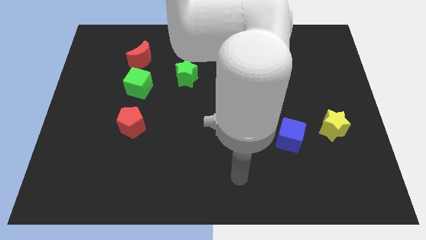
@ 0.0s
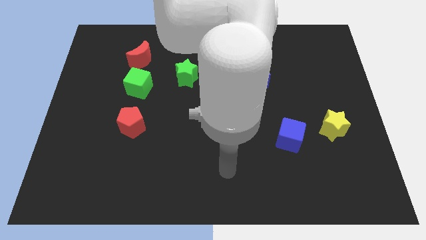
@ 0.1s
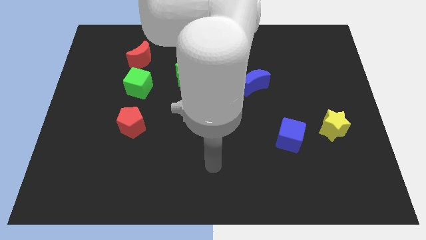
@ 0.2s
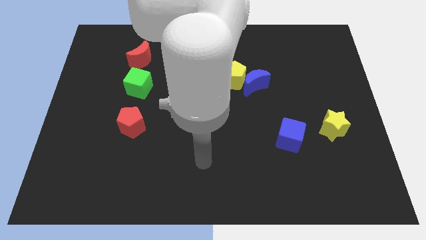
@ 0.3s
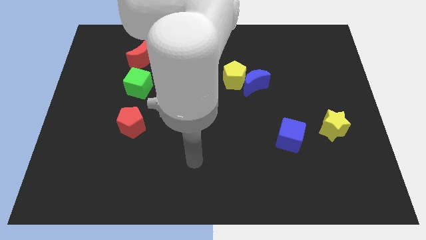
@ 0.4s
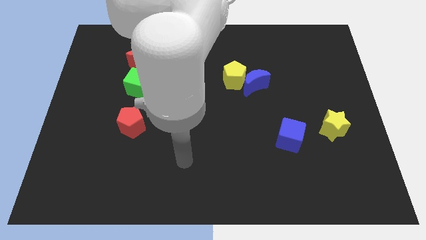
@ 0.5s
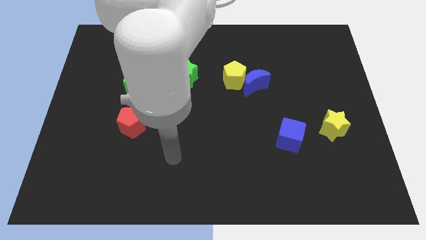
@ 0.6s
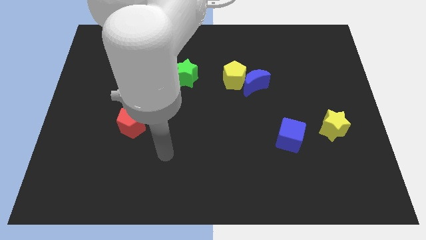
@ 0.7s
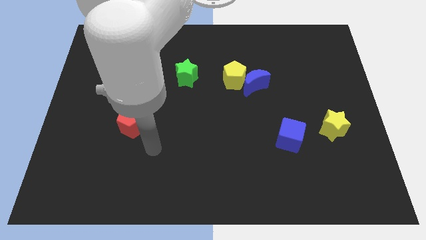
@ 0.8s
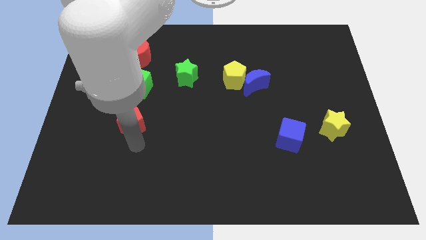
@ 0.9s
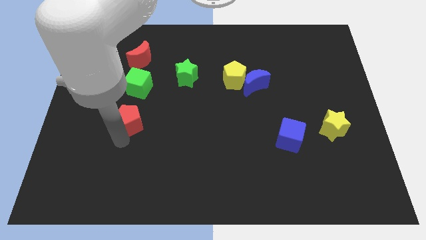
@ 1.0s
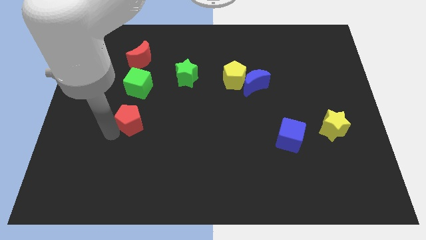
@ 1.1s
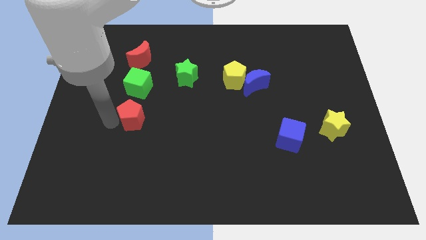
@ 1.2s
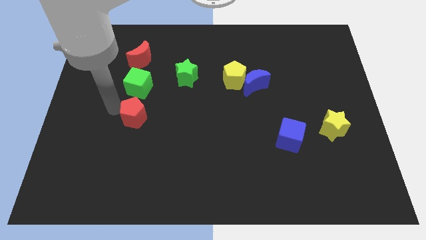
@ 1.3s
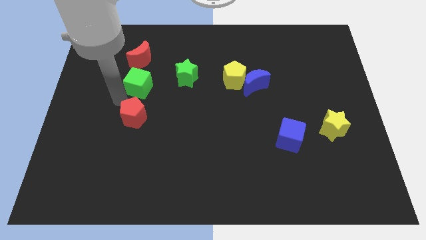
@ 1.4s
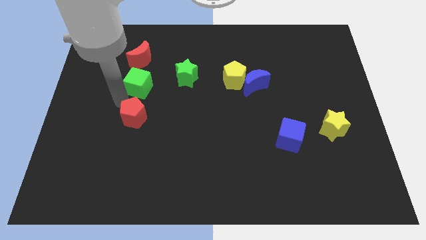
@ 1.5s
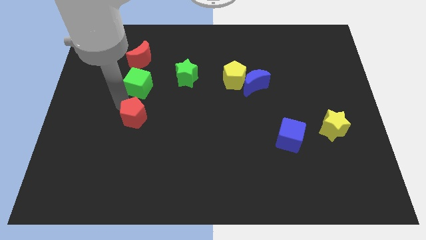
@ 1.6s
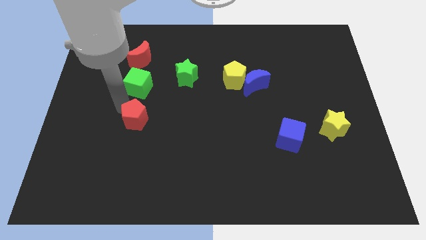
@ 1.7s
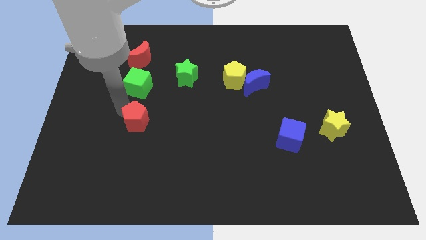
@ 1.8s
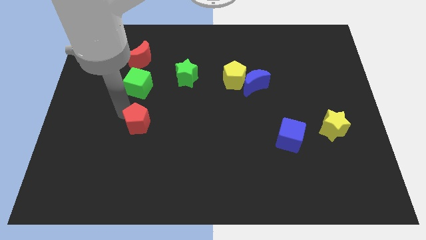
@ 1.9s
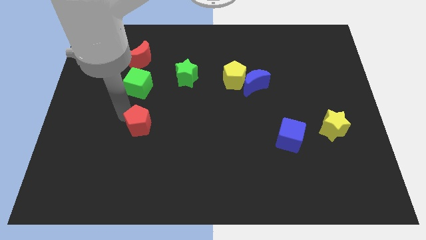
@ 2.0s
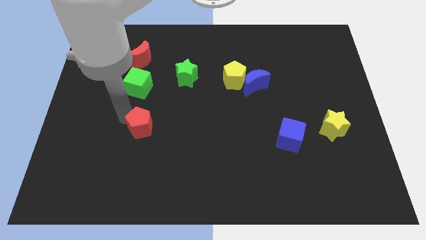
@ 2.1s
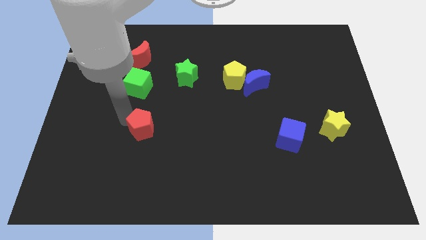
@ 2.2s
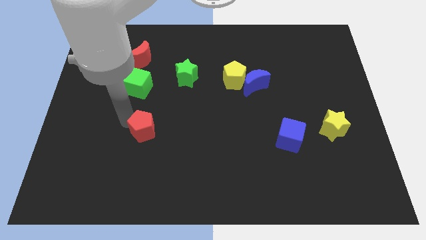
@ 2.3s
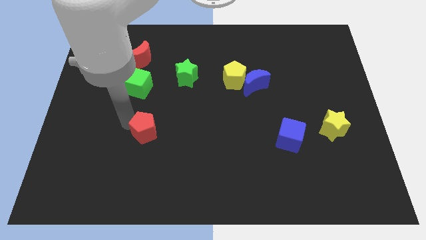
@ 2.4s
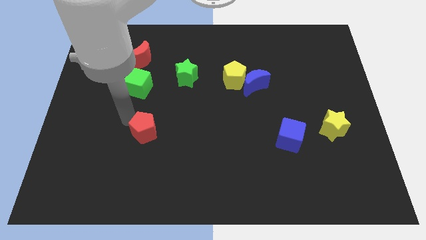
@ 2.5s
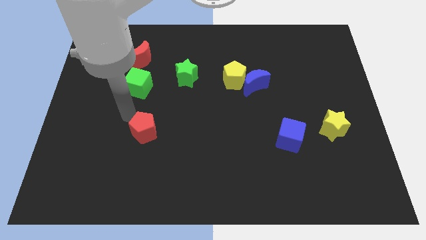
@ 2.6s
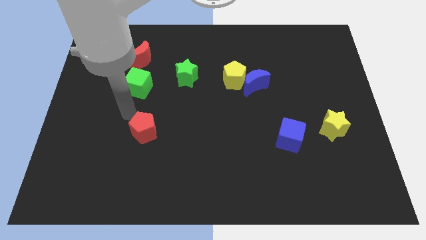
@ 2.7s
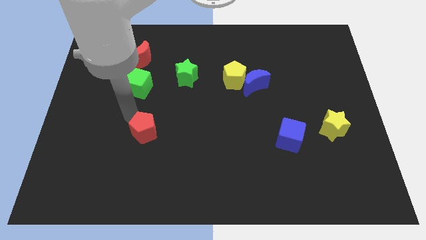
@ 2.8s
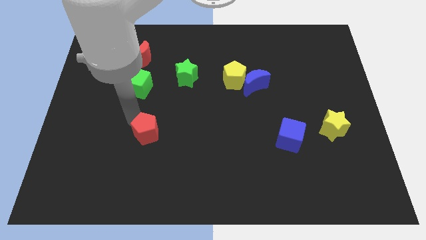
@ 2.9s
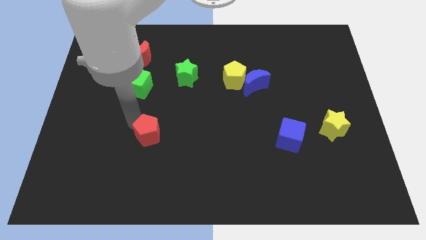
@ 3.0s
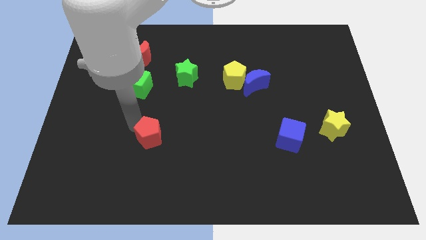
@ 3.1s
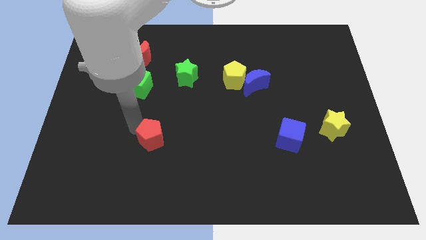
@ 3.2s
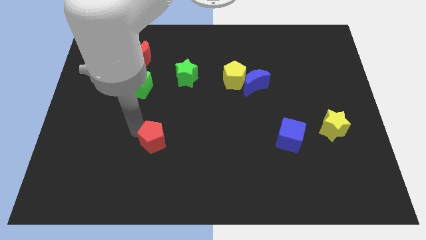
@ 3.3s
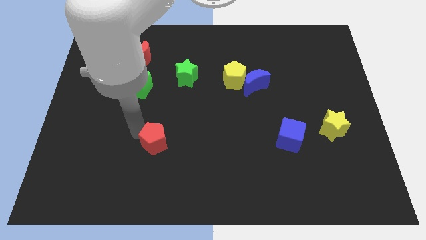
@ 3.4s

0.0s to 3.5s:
slightly push the red pentagon diagonally down and right

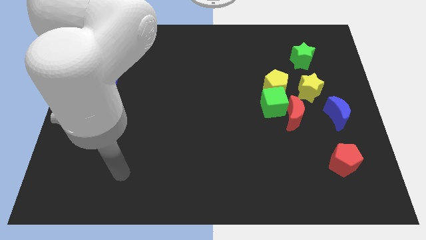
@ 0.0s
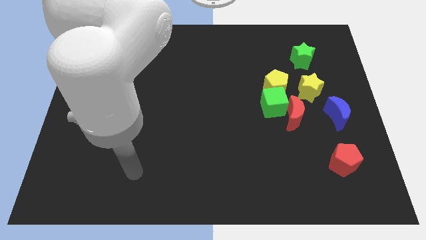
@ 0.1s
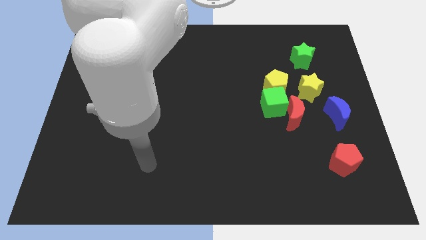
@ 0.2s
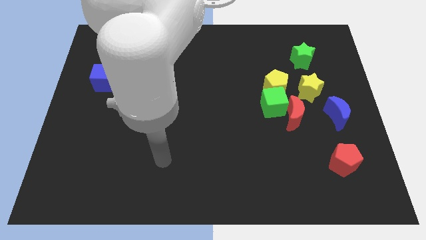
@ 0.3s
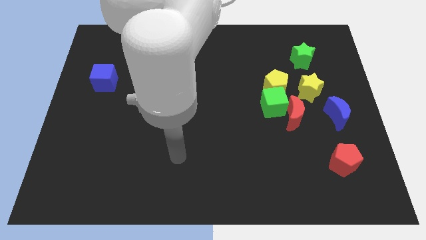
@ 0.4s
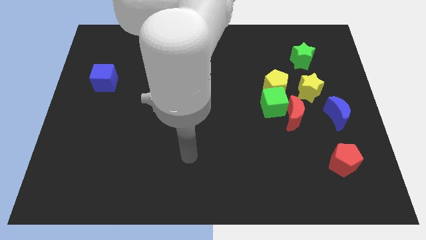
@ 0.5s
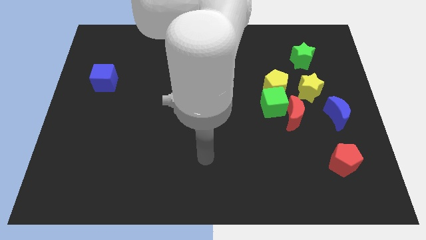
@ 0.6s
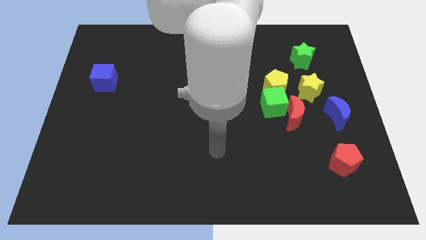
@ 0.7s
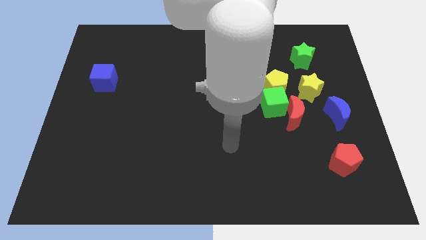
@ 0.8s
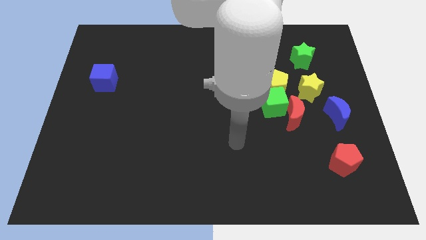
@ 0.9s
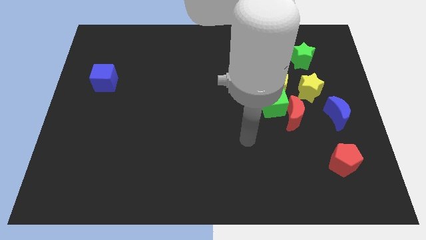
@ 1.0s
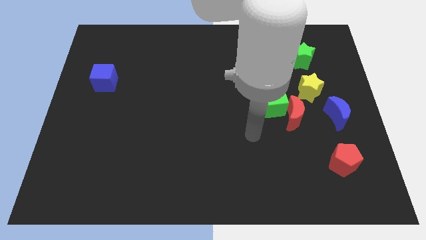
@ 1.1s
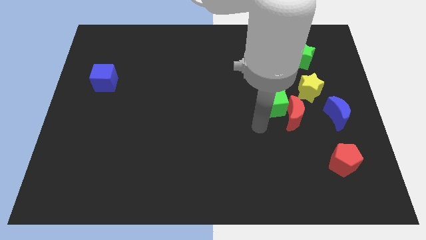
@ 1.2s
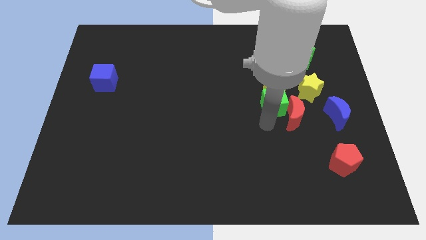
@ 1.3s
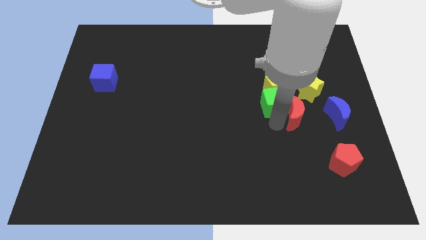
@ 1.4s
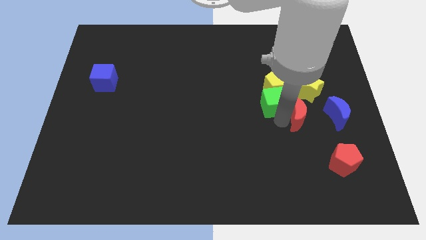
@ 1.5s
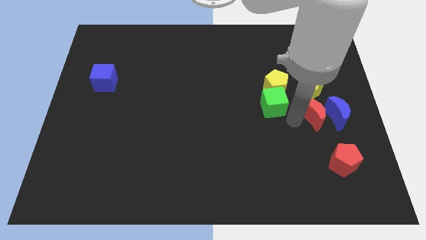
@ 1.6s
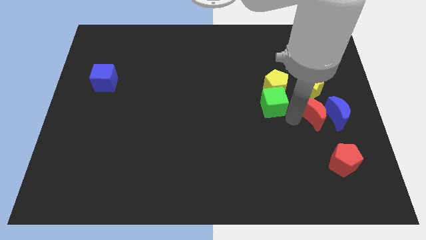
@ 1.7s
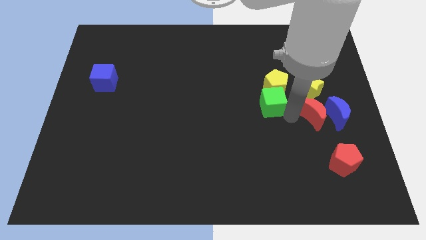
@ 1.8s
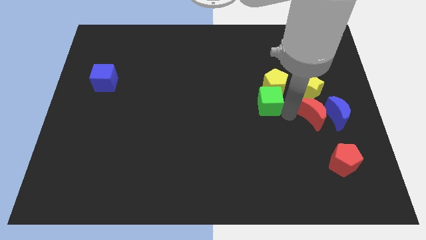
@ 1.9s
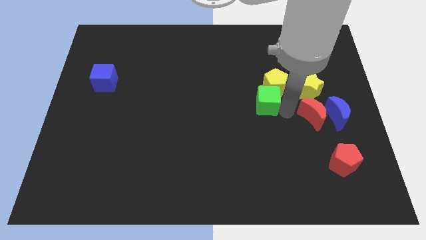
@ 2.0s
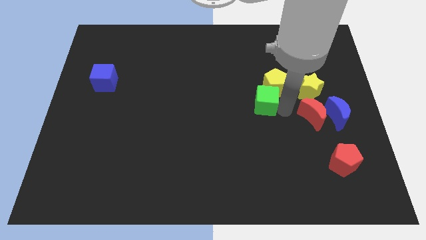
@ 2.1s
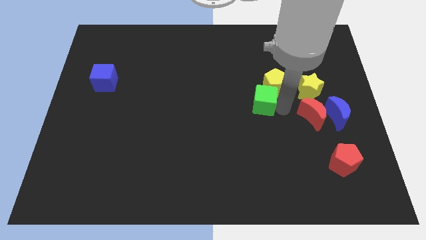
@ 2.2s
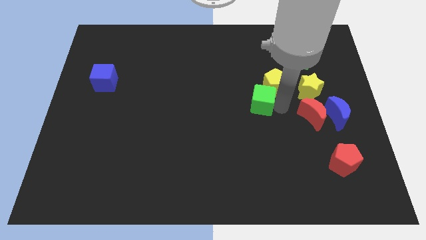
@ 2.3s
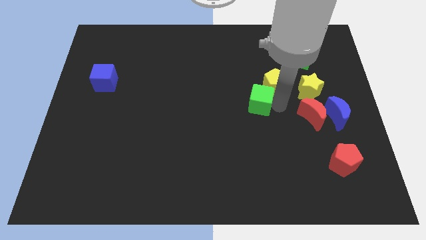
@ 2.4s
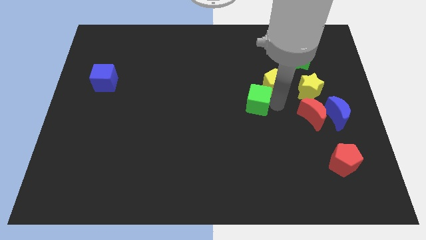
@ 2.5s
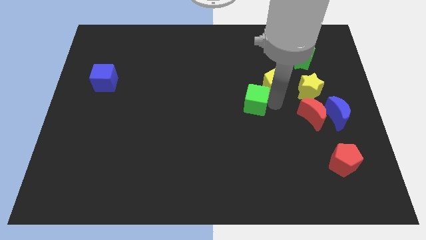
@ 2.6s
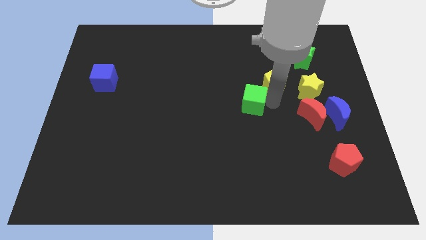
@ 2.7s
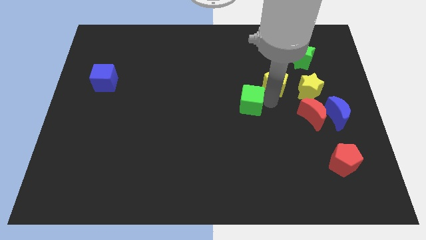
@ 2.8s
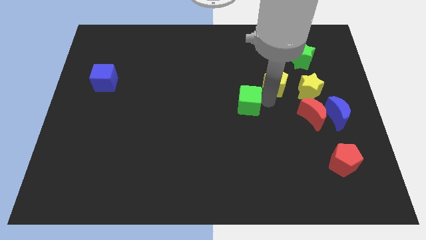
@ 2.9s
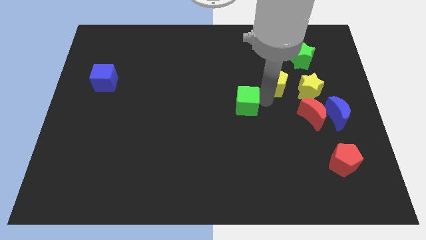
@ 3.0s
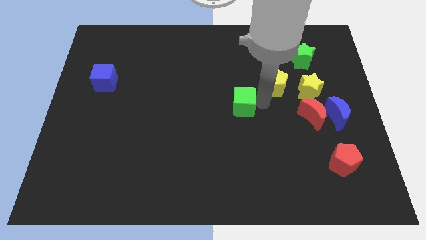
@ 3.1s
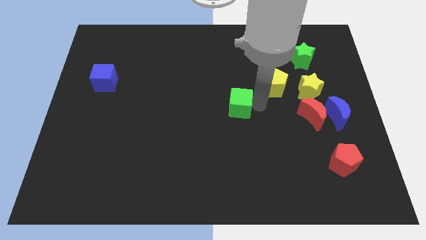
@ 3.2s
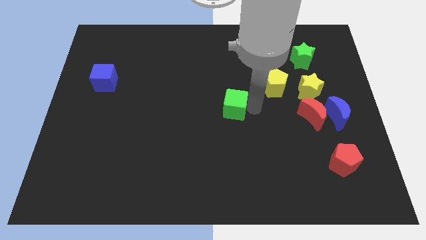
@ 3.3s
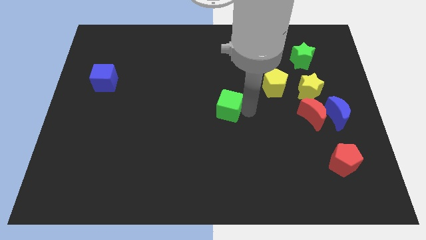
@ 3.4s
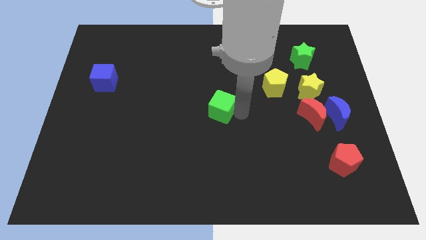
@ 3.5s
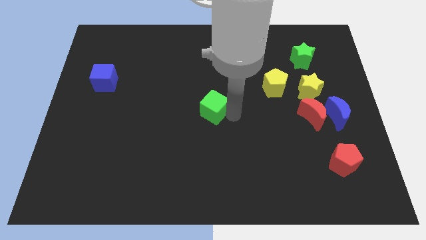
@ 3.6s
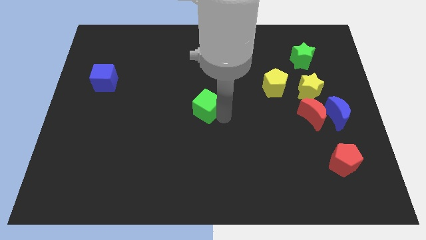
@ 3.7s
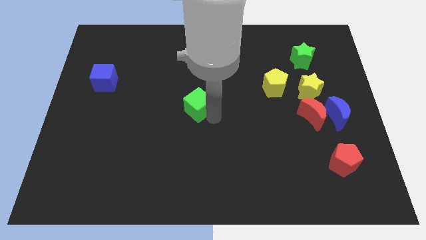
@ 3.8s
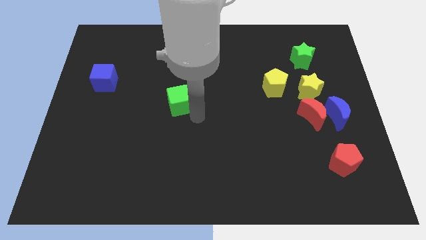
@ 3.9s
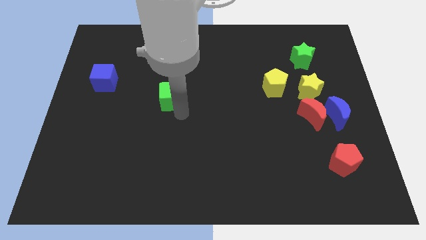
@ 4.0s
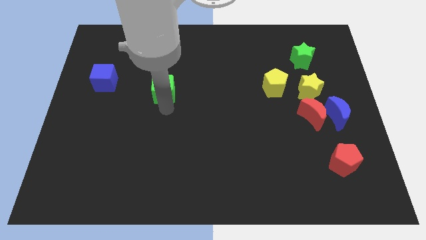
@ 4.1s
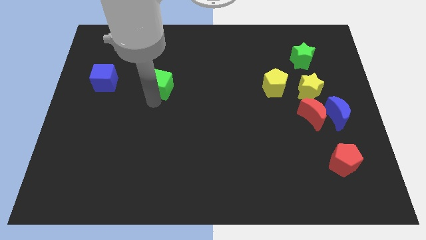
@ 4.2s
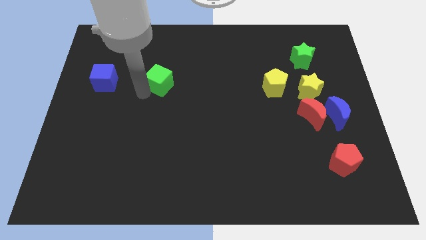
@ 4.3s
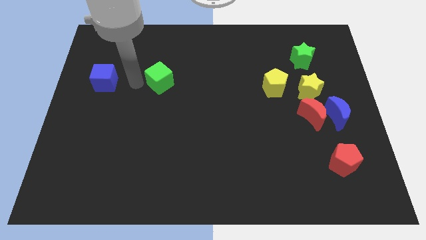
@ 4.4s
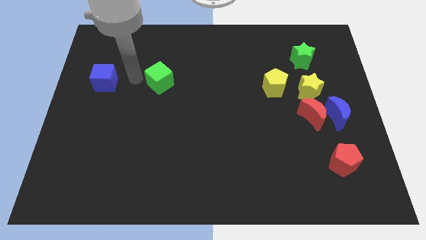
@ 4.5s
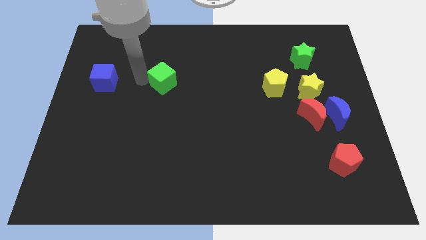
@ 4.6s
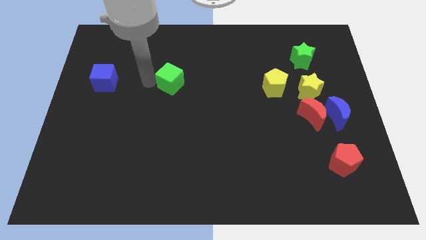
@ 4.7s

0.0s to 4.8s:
slightly slide the green cube upwards and left diagonally
